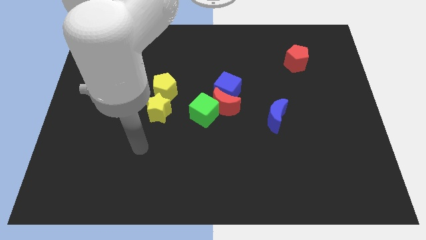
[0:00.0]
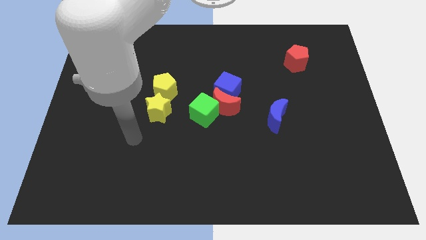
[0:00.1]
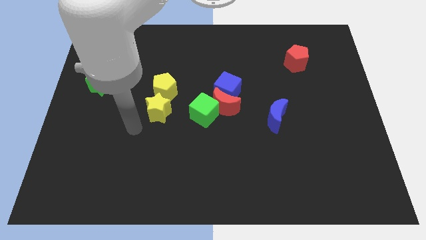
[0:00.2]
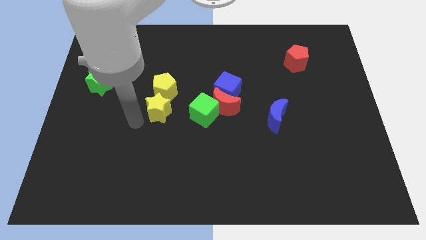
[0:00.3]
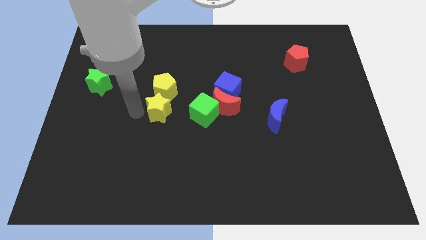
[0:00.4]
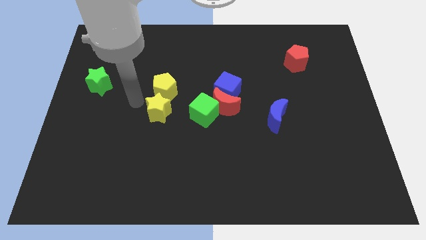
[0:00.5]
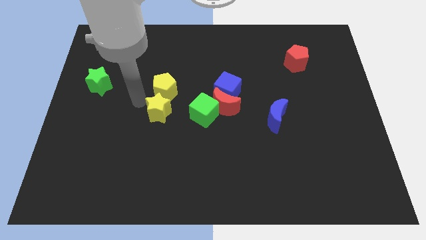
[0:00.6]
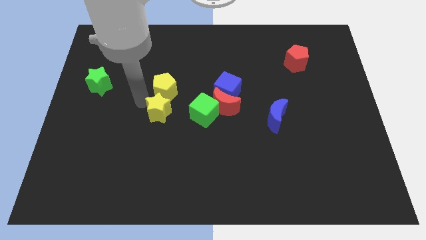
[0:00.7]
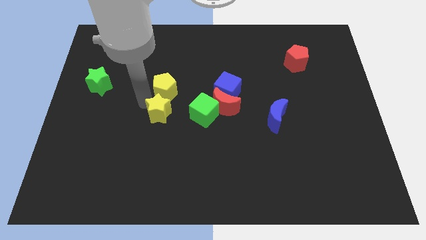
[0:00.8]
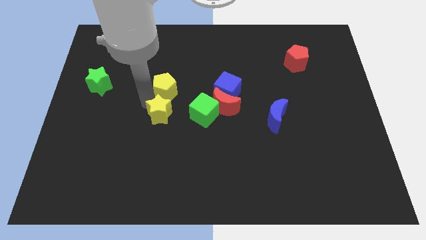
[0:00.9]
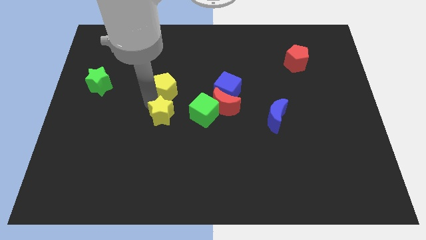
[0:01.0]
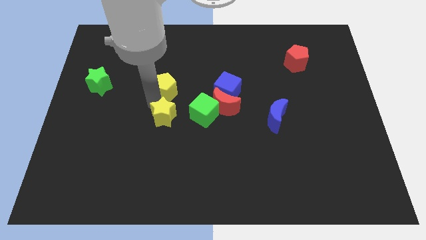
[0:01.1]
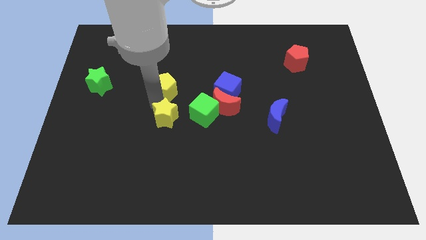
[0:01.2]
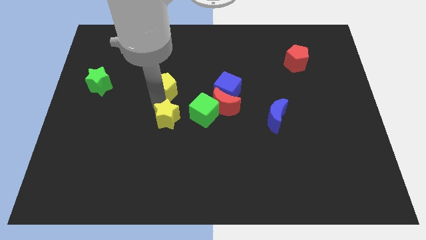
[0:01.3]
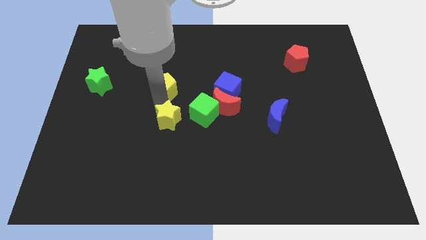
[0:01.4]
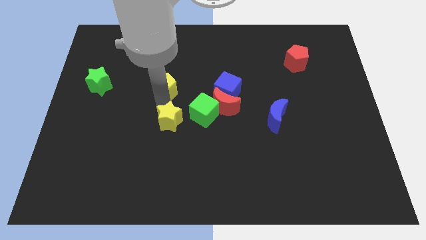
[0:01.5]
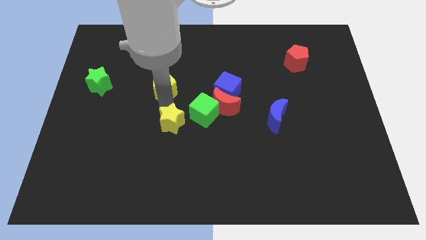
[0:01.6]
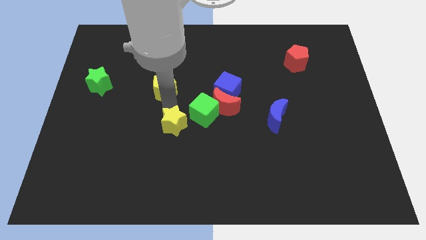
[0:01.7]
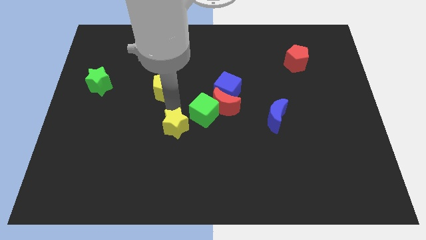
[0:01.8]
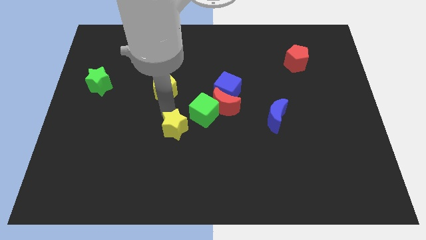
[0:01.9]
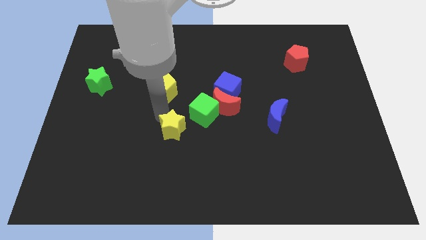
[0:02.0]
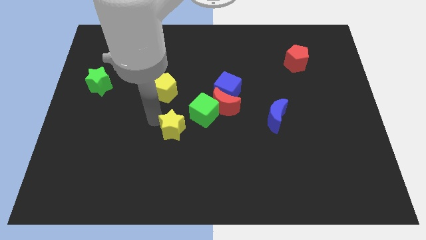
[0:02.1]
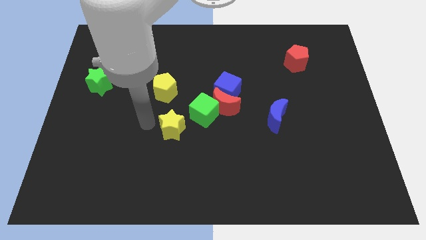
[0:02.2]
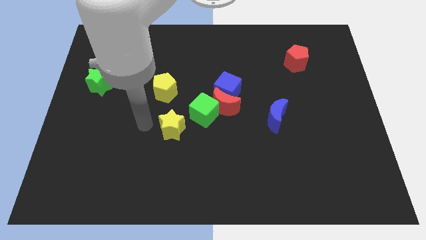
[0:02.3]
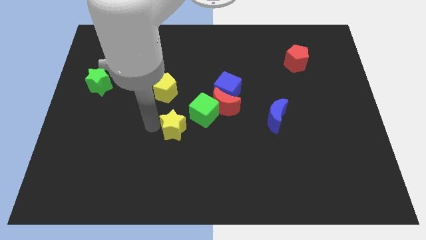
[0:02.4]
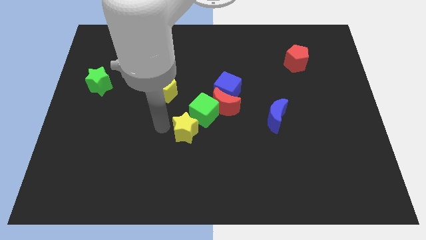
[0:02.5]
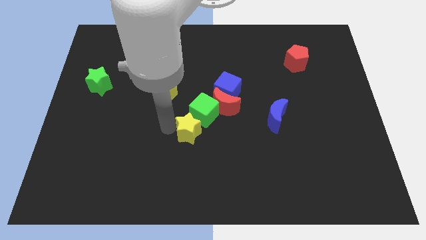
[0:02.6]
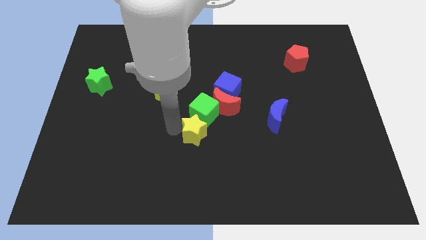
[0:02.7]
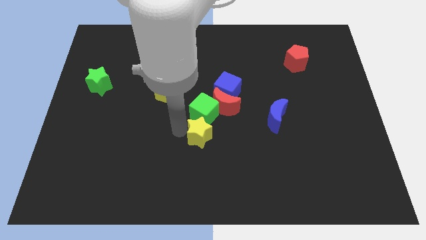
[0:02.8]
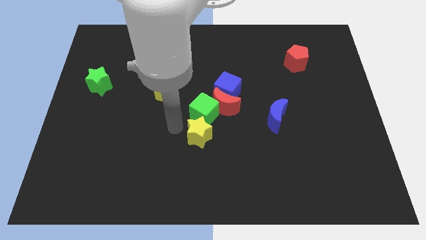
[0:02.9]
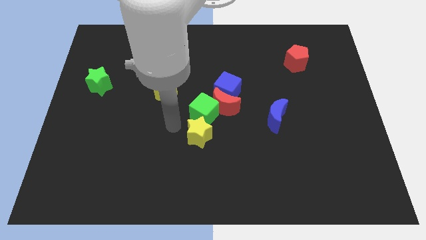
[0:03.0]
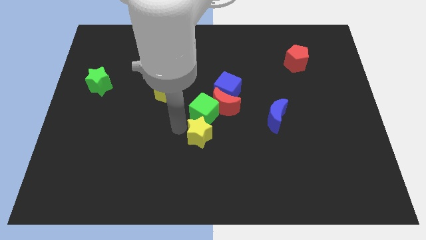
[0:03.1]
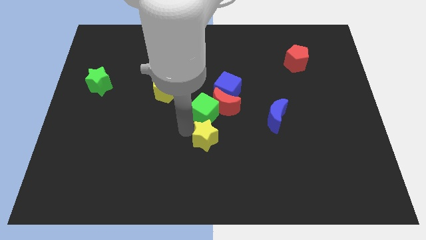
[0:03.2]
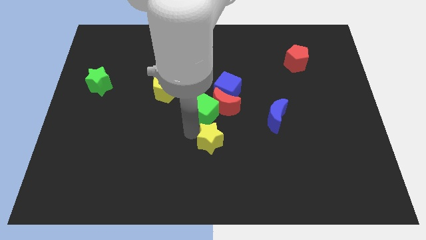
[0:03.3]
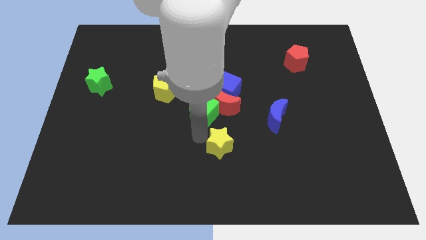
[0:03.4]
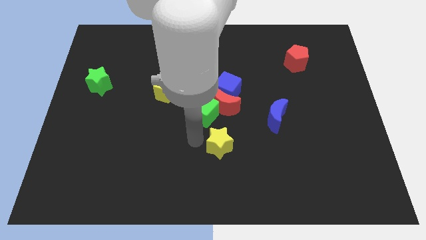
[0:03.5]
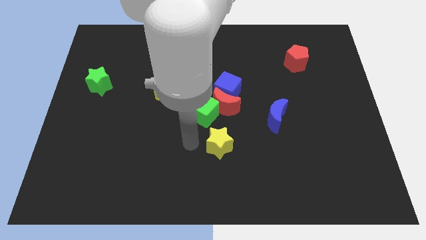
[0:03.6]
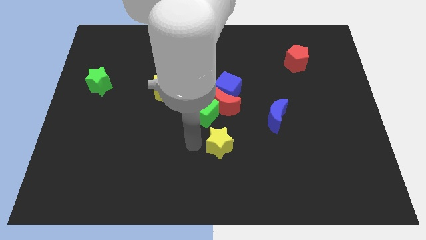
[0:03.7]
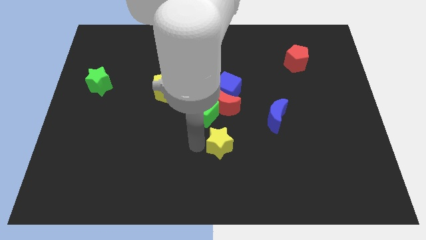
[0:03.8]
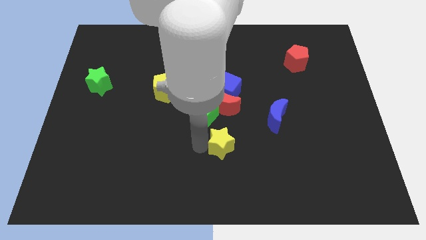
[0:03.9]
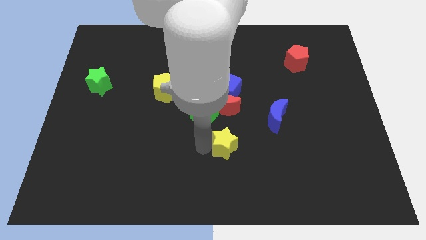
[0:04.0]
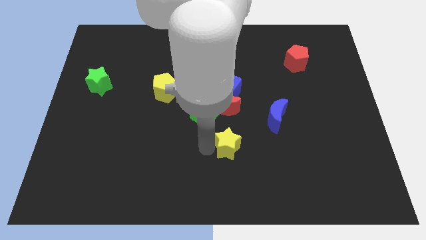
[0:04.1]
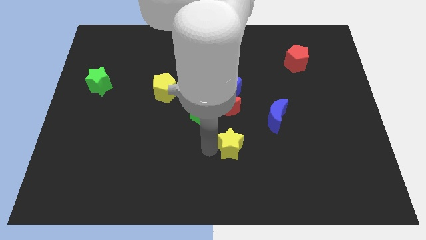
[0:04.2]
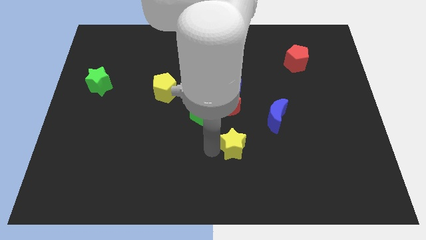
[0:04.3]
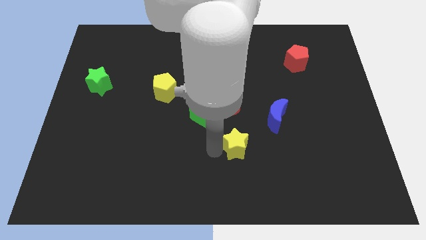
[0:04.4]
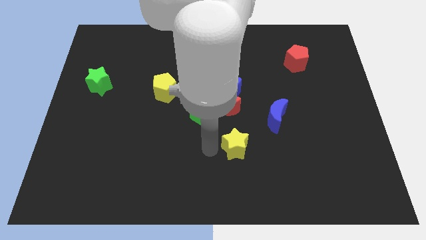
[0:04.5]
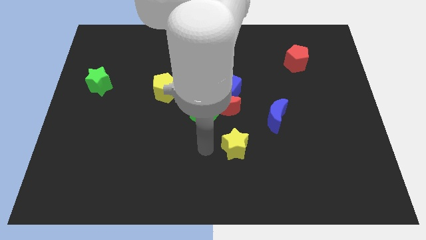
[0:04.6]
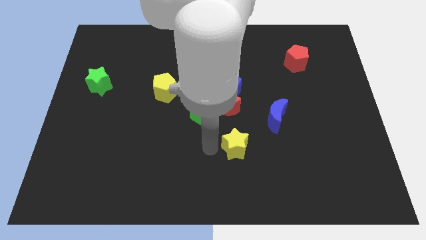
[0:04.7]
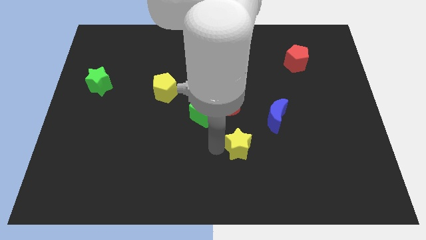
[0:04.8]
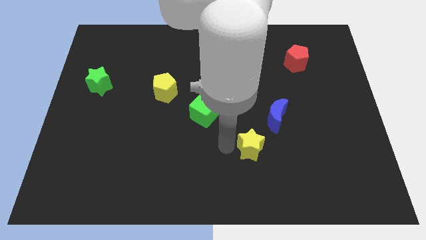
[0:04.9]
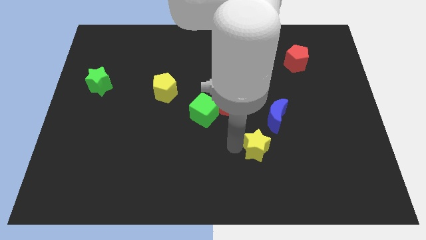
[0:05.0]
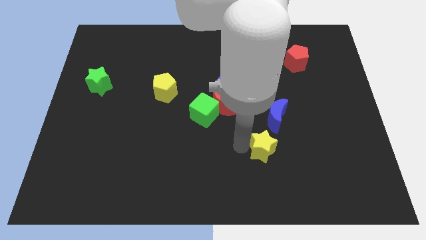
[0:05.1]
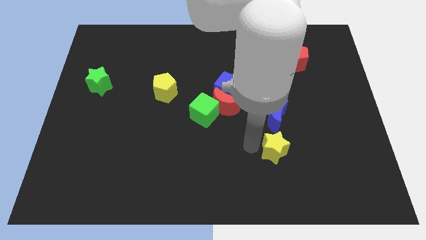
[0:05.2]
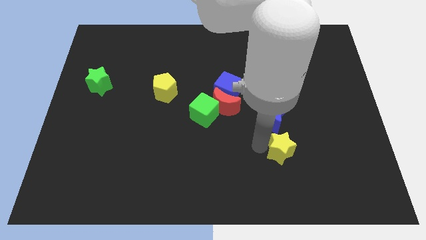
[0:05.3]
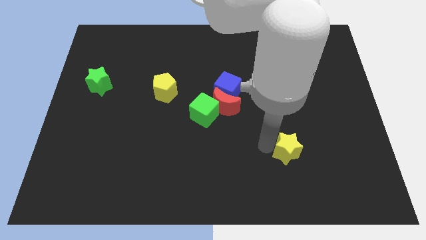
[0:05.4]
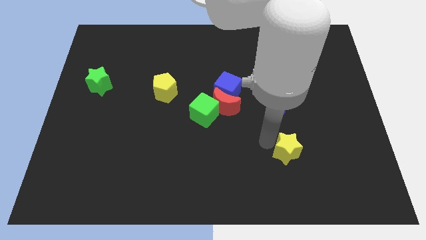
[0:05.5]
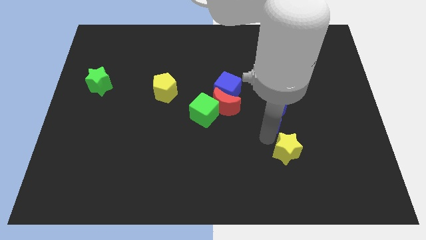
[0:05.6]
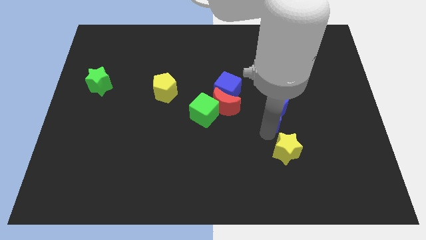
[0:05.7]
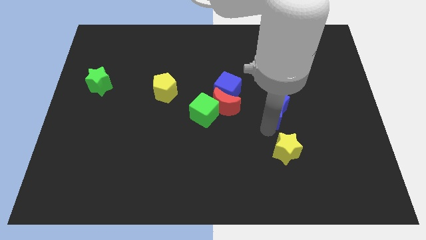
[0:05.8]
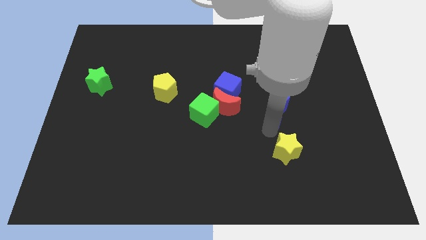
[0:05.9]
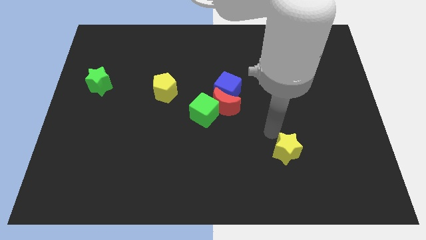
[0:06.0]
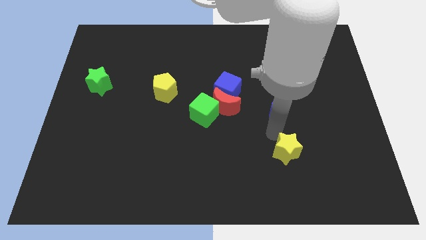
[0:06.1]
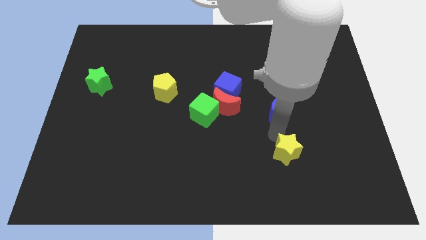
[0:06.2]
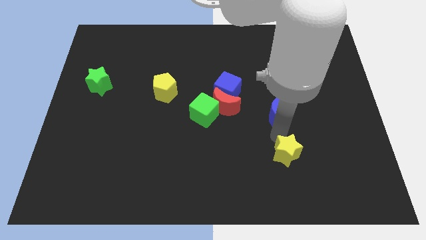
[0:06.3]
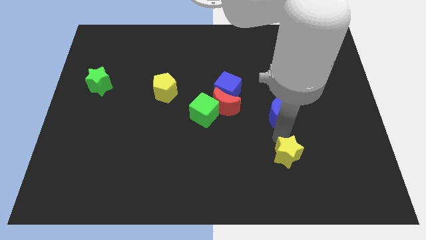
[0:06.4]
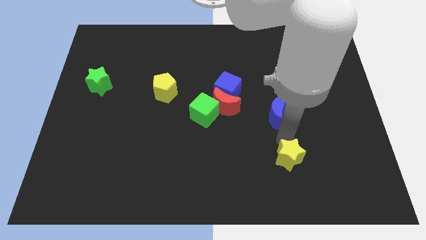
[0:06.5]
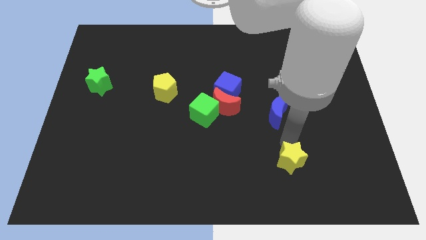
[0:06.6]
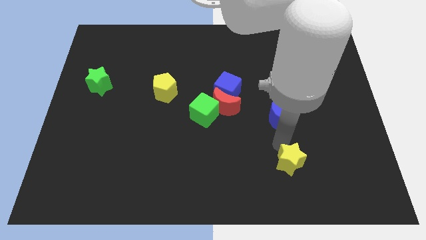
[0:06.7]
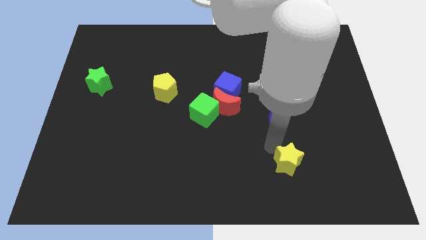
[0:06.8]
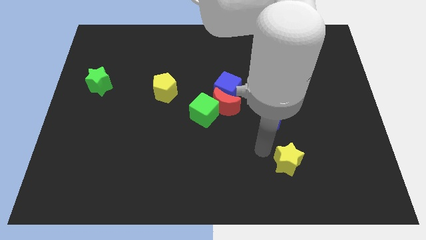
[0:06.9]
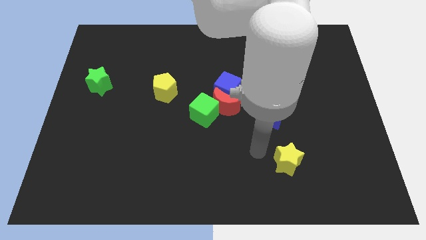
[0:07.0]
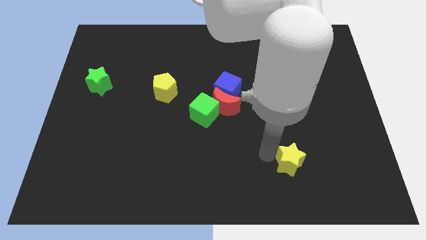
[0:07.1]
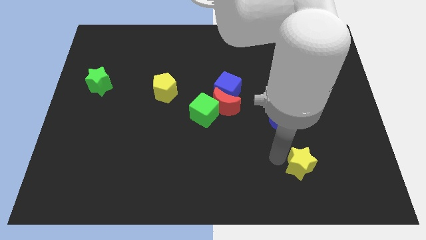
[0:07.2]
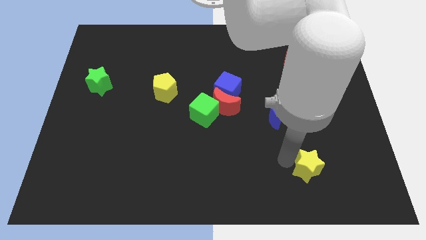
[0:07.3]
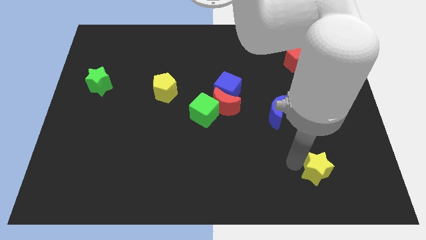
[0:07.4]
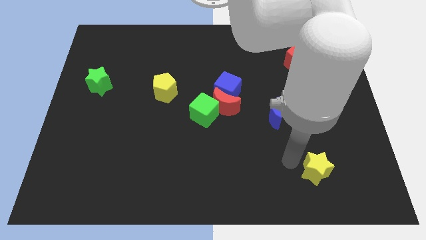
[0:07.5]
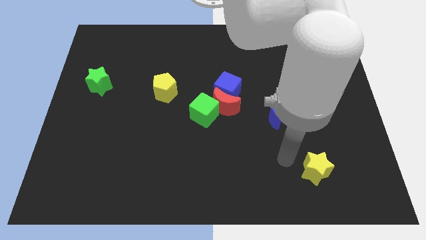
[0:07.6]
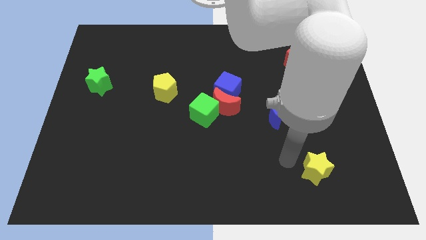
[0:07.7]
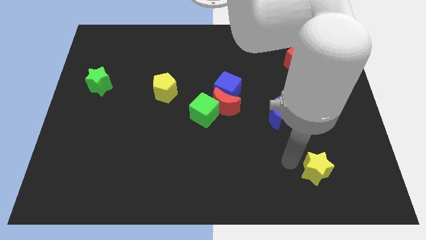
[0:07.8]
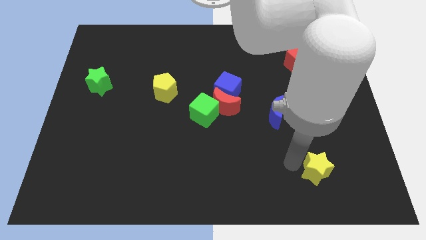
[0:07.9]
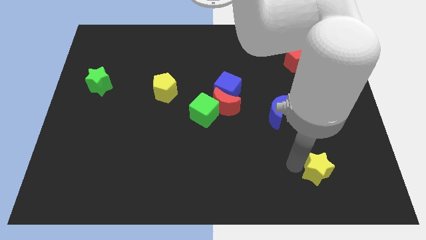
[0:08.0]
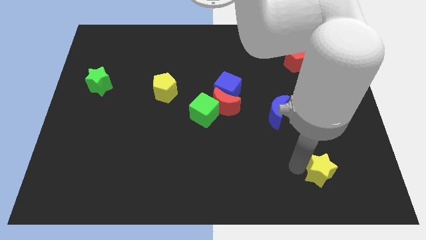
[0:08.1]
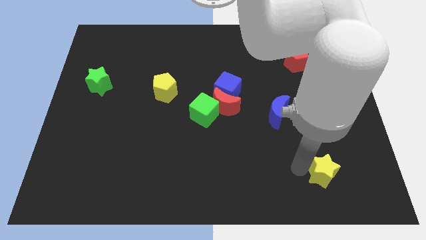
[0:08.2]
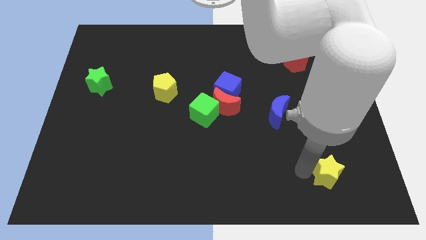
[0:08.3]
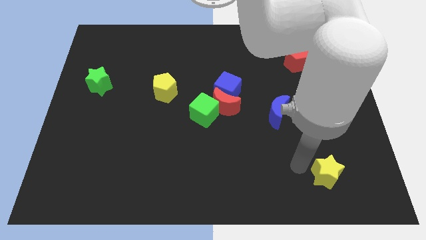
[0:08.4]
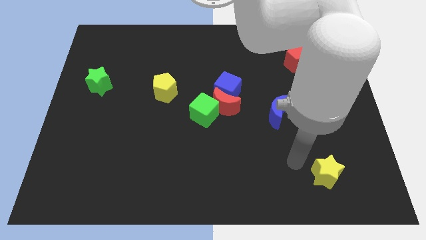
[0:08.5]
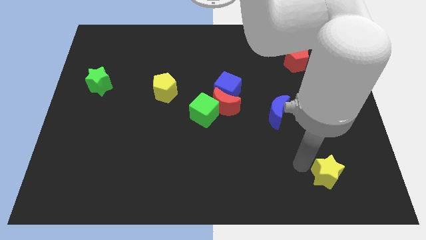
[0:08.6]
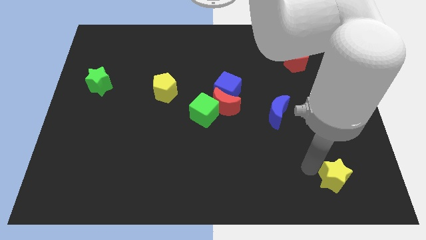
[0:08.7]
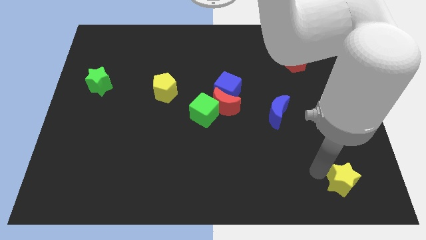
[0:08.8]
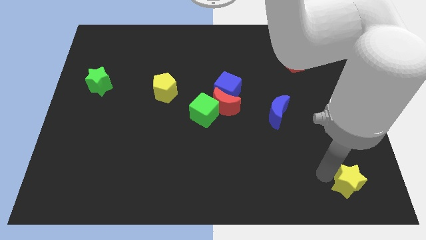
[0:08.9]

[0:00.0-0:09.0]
slide the yellow star to the bottom right corner
